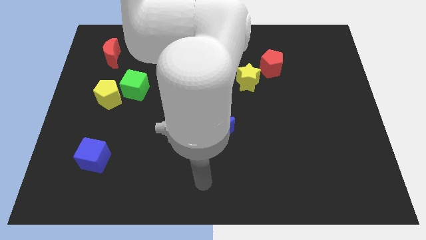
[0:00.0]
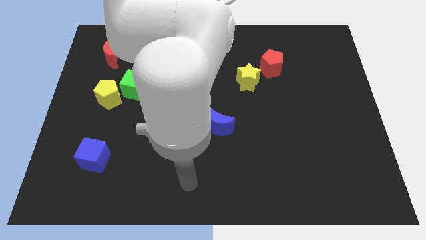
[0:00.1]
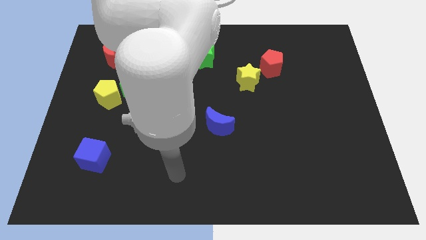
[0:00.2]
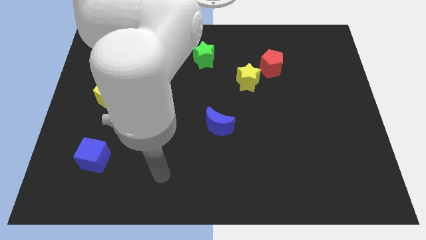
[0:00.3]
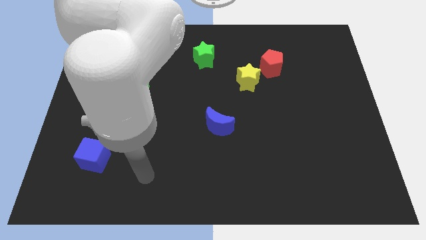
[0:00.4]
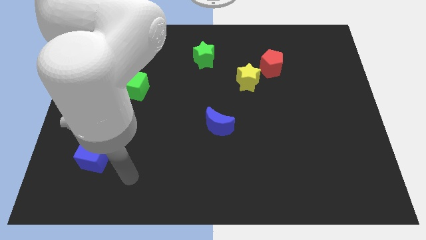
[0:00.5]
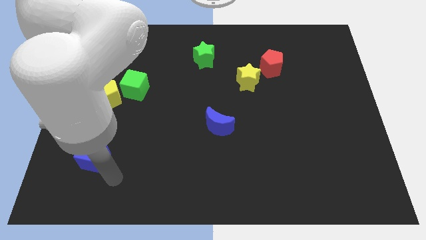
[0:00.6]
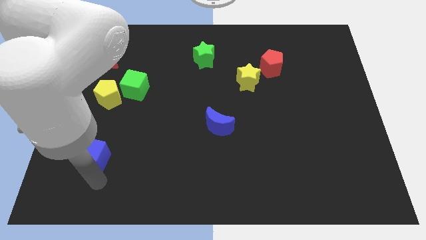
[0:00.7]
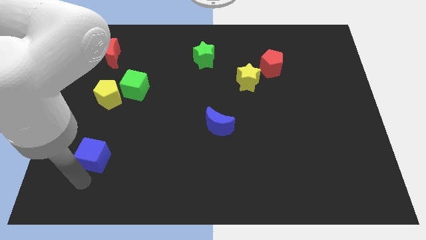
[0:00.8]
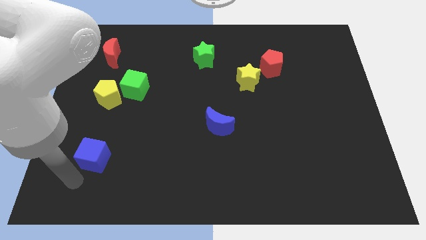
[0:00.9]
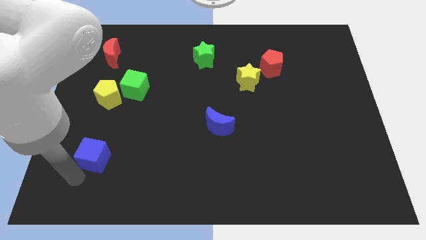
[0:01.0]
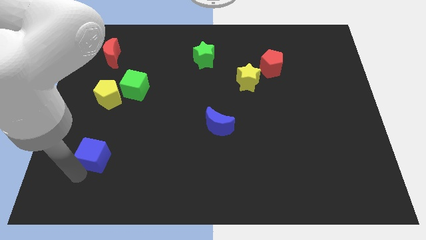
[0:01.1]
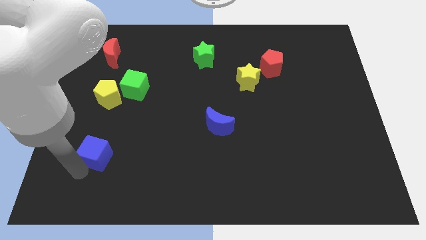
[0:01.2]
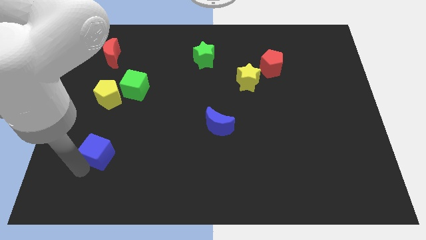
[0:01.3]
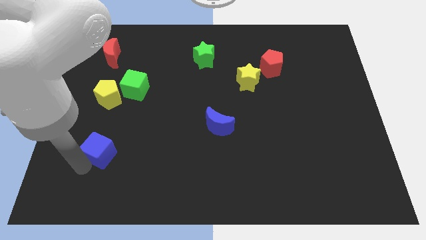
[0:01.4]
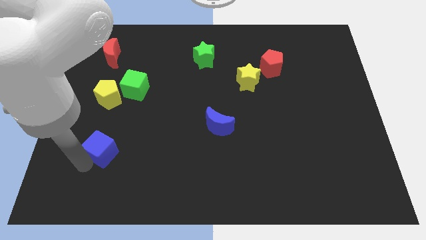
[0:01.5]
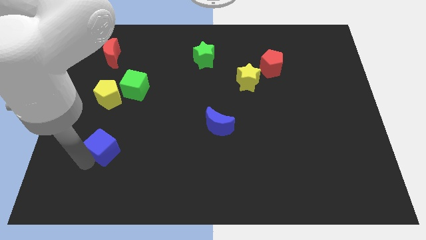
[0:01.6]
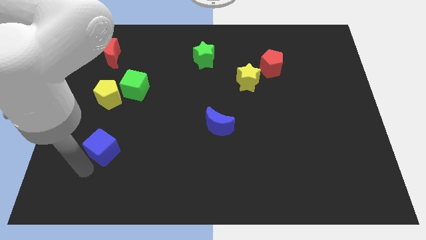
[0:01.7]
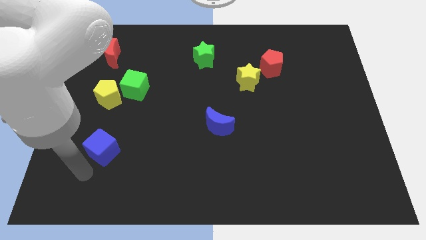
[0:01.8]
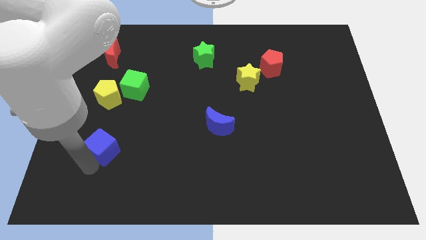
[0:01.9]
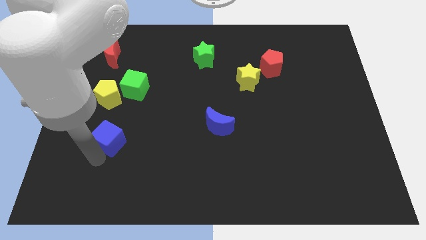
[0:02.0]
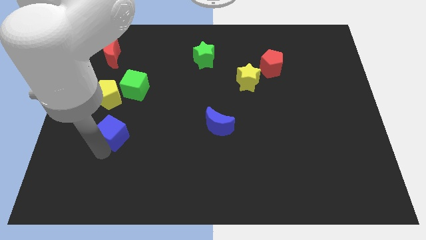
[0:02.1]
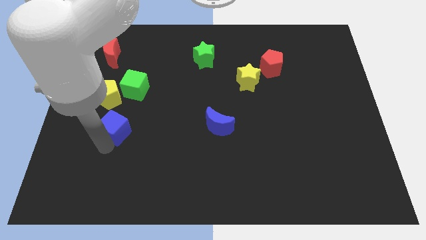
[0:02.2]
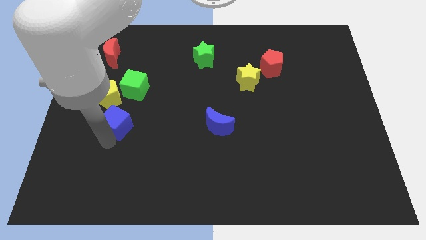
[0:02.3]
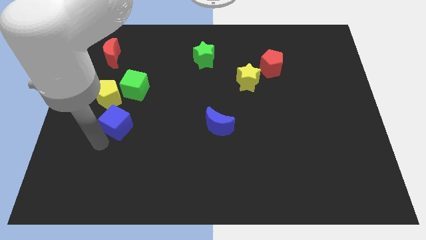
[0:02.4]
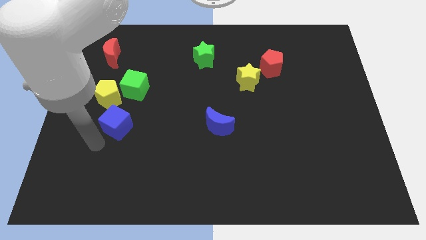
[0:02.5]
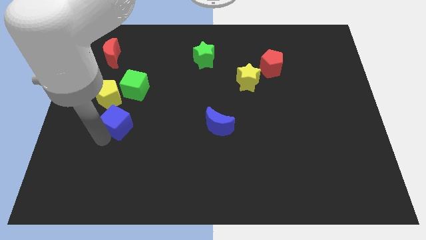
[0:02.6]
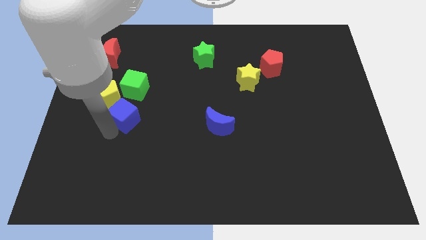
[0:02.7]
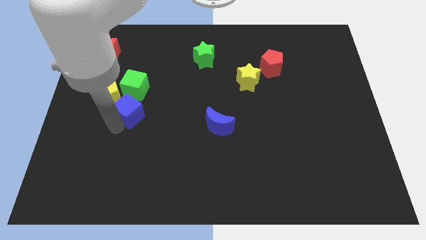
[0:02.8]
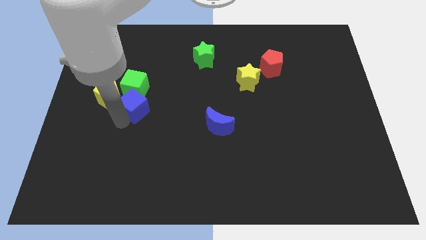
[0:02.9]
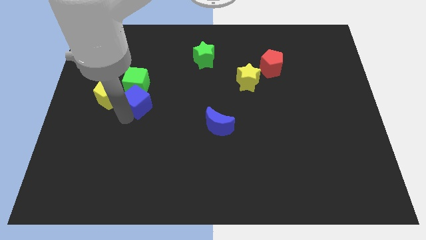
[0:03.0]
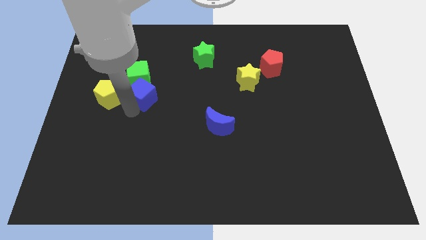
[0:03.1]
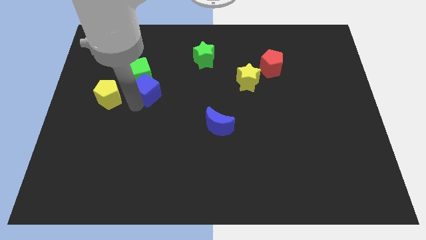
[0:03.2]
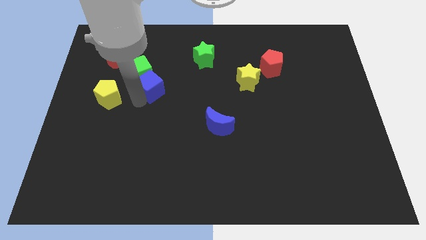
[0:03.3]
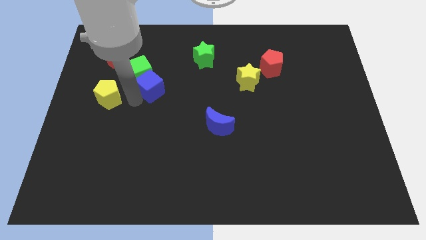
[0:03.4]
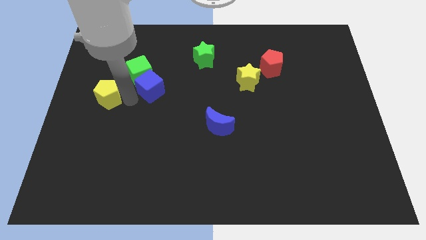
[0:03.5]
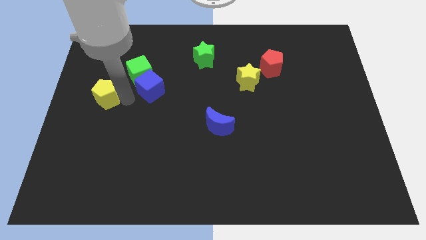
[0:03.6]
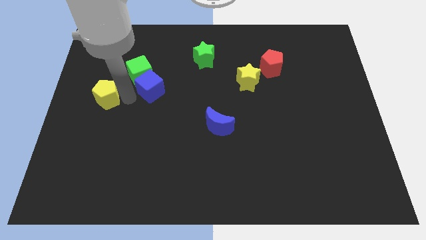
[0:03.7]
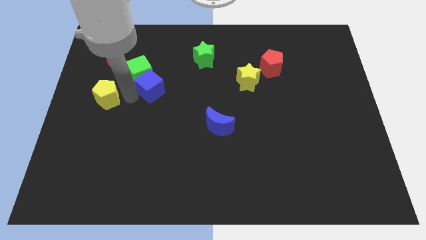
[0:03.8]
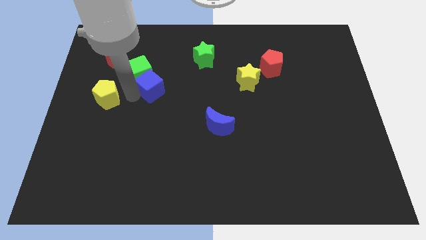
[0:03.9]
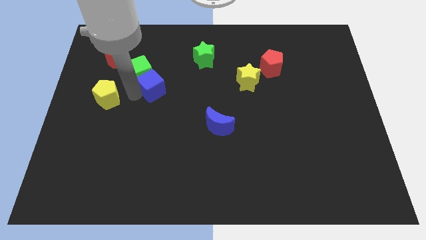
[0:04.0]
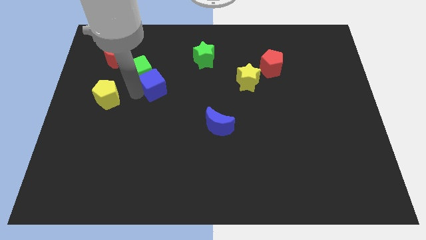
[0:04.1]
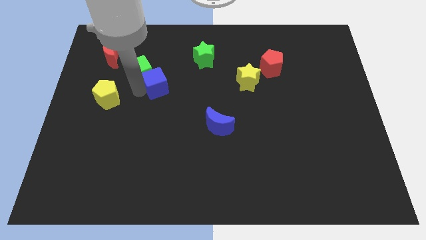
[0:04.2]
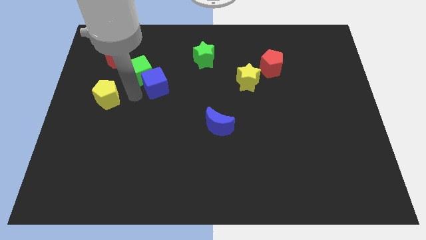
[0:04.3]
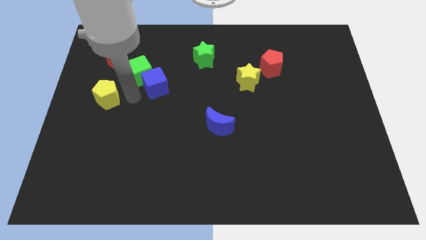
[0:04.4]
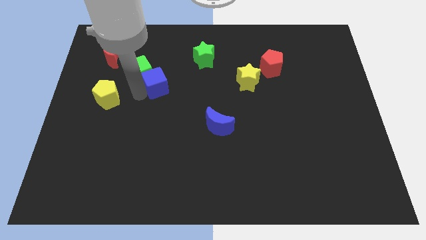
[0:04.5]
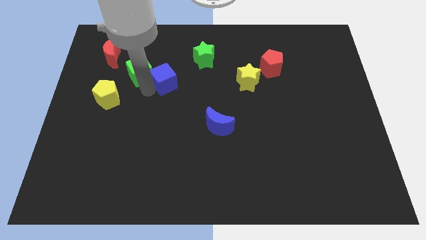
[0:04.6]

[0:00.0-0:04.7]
slide the blue cube diagonally down and to the left of the green star

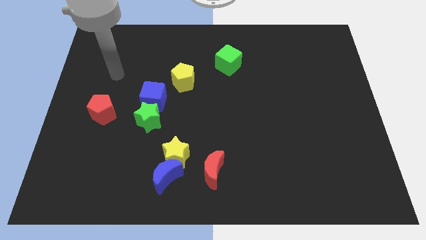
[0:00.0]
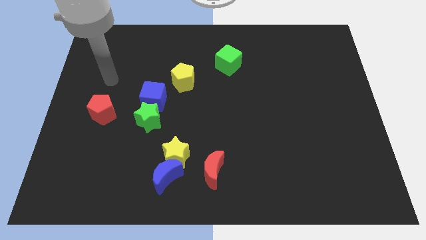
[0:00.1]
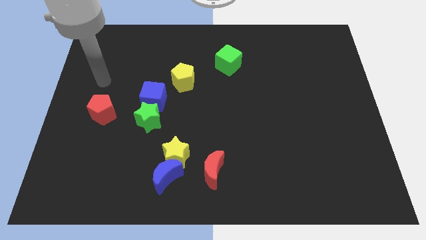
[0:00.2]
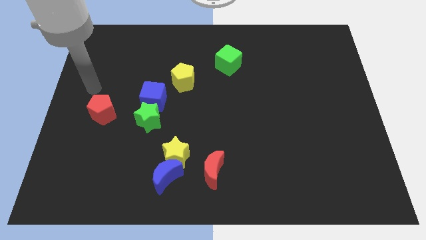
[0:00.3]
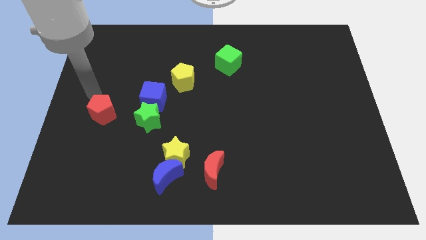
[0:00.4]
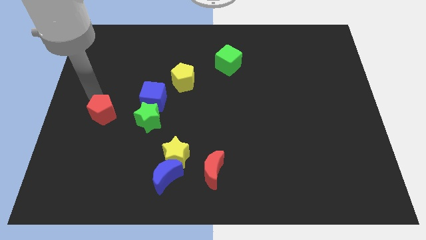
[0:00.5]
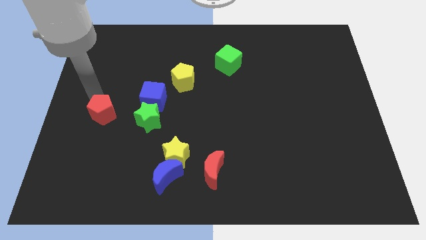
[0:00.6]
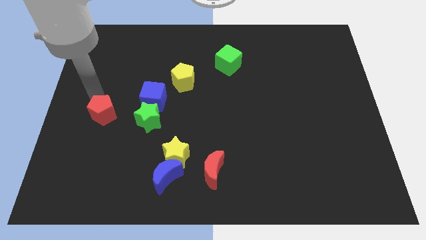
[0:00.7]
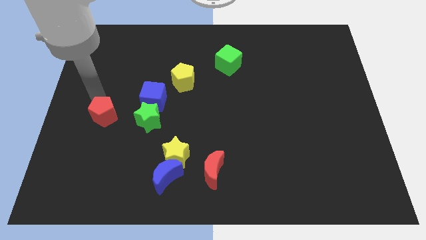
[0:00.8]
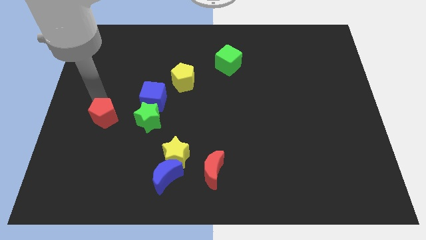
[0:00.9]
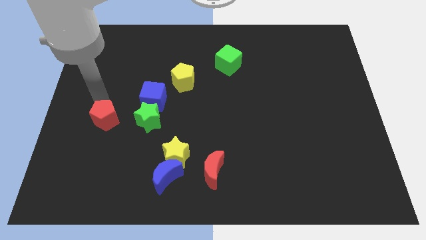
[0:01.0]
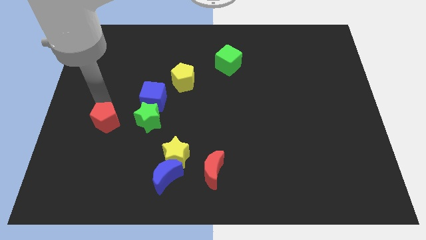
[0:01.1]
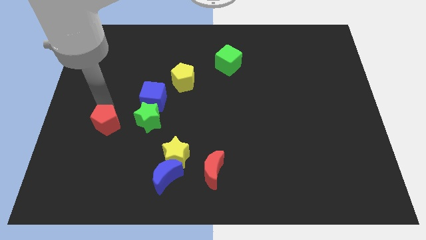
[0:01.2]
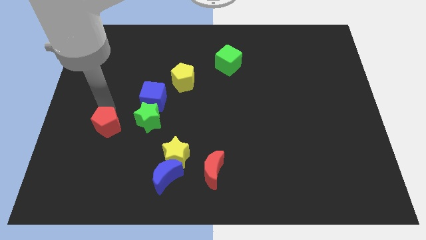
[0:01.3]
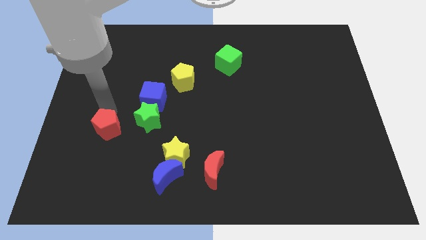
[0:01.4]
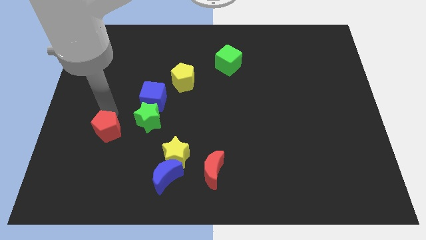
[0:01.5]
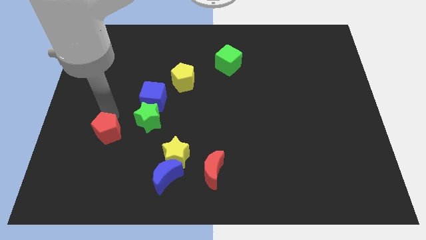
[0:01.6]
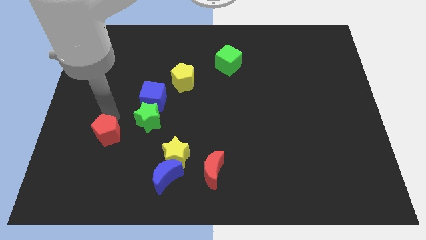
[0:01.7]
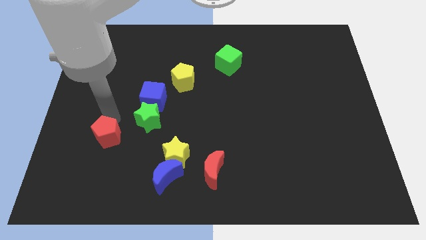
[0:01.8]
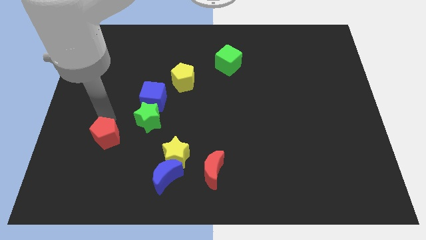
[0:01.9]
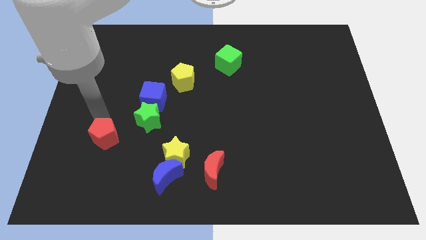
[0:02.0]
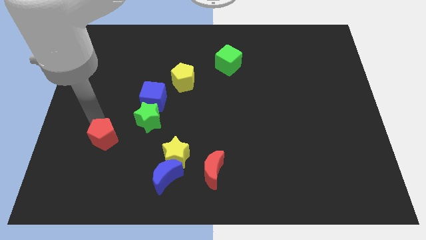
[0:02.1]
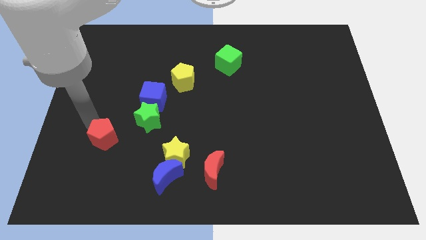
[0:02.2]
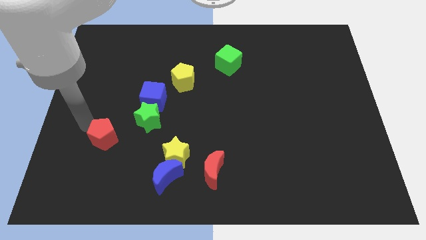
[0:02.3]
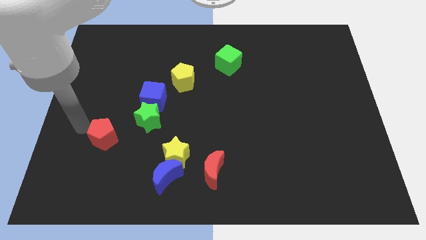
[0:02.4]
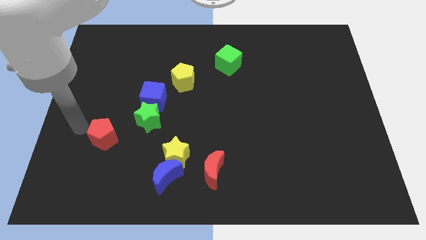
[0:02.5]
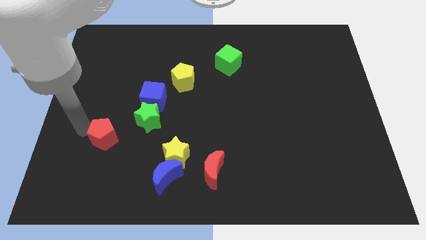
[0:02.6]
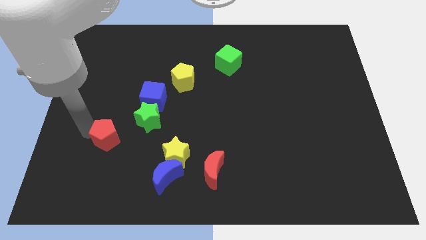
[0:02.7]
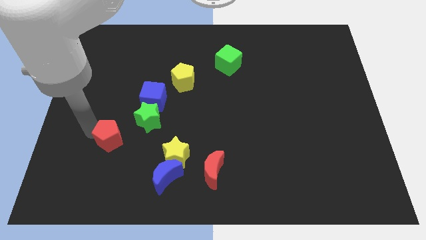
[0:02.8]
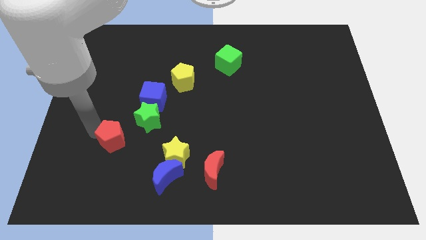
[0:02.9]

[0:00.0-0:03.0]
put the red pentagon to the left side of the yellow star

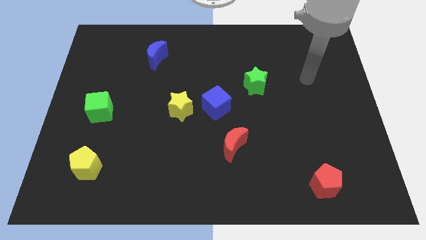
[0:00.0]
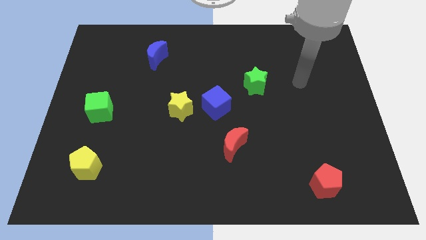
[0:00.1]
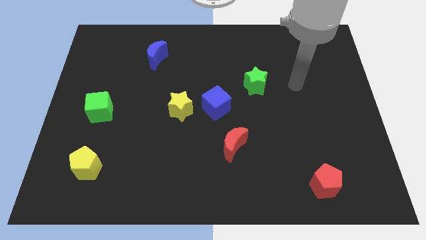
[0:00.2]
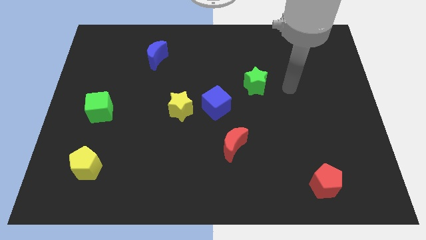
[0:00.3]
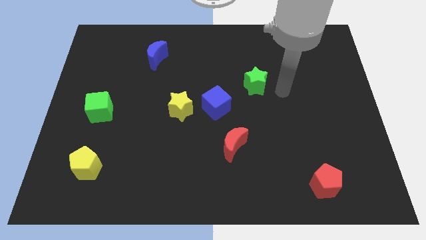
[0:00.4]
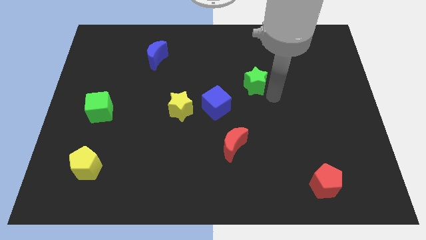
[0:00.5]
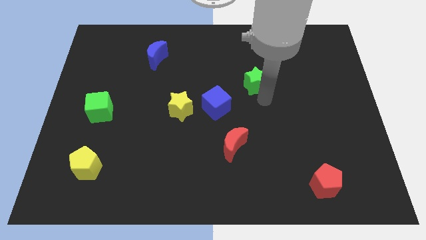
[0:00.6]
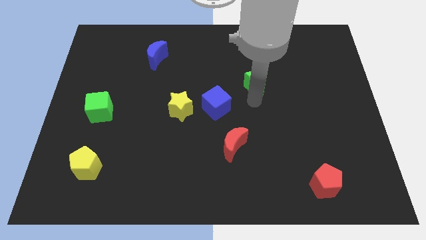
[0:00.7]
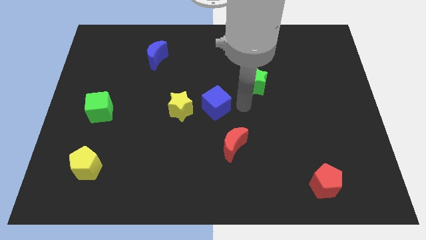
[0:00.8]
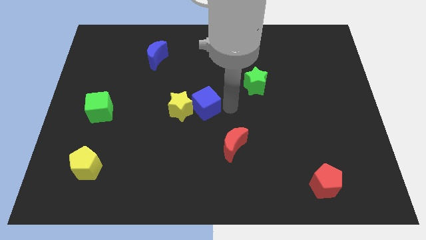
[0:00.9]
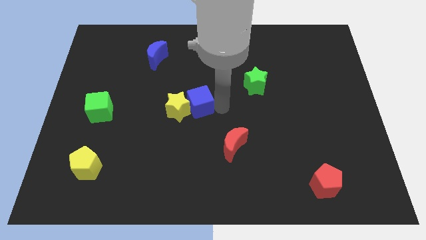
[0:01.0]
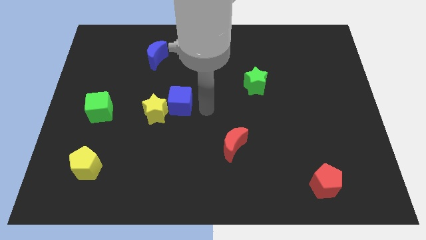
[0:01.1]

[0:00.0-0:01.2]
put the yellow star right of the green cube
